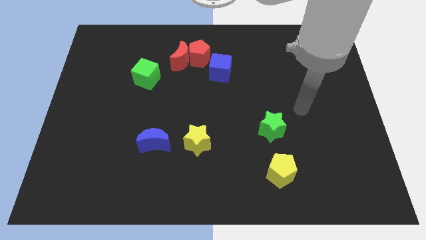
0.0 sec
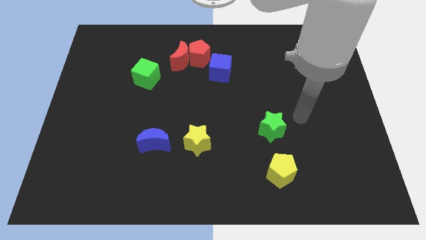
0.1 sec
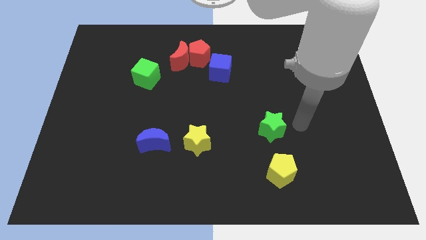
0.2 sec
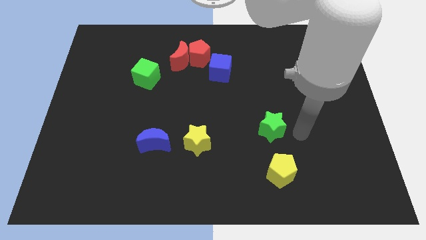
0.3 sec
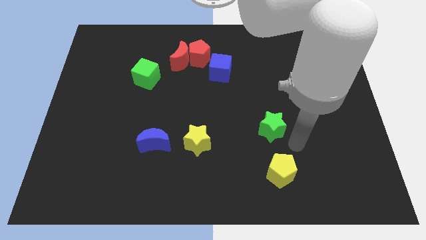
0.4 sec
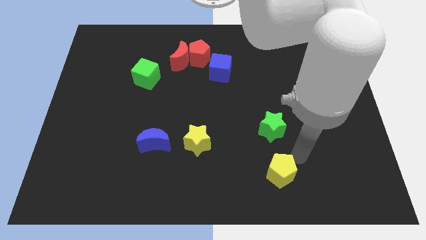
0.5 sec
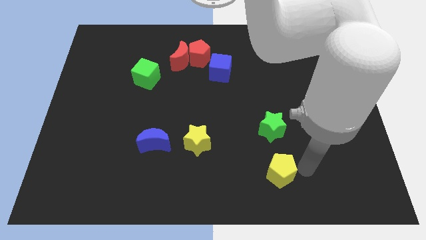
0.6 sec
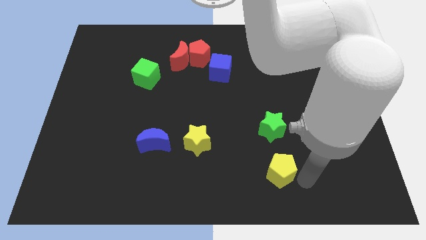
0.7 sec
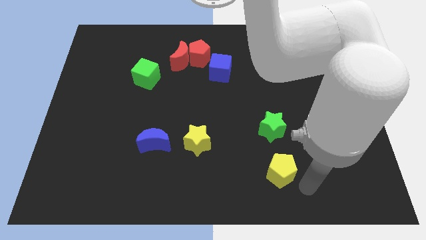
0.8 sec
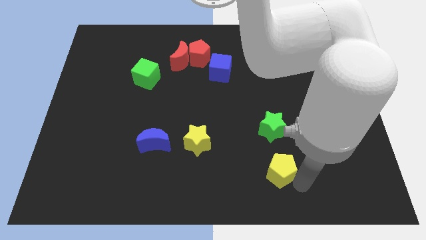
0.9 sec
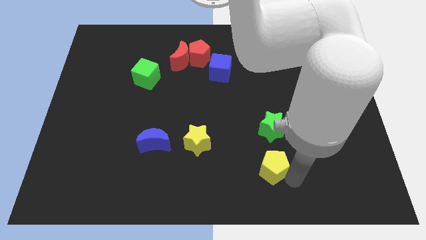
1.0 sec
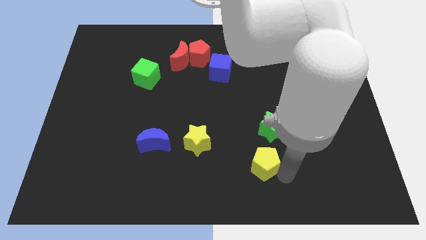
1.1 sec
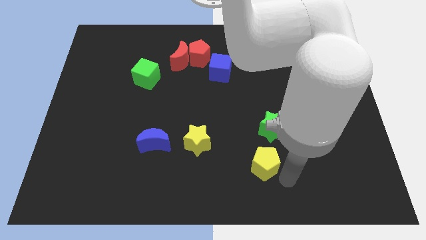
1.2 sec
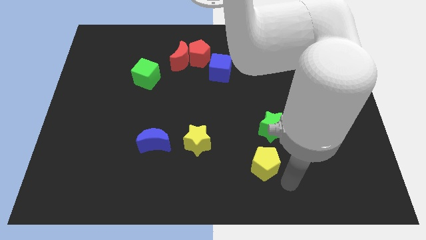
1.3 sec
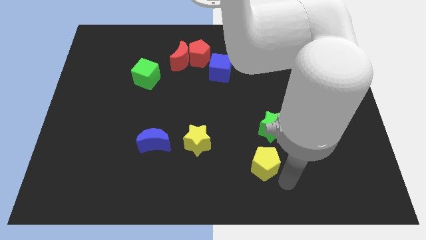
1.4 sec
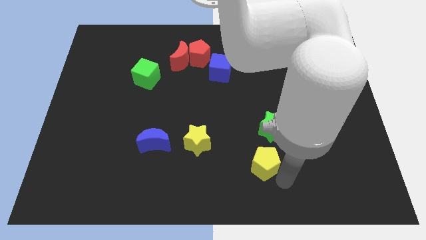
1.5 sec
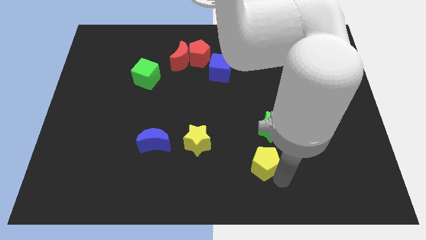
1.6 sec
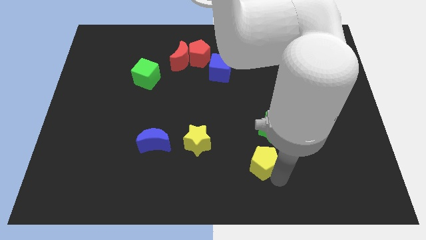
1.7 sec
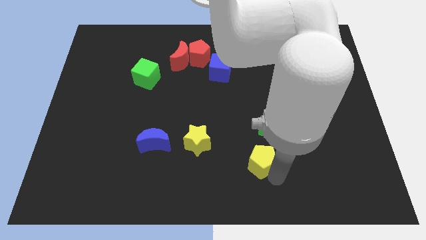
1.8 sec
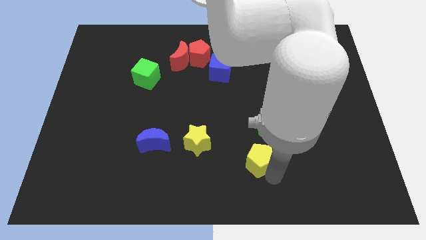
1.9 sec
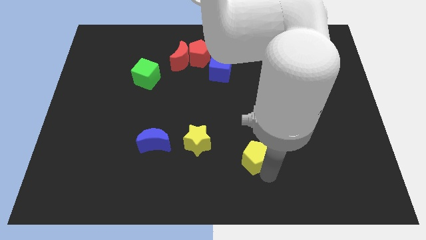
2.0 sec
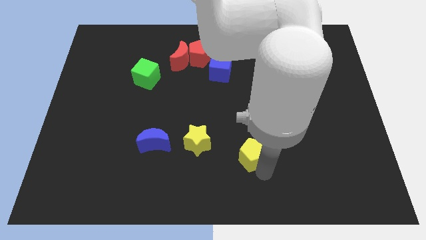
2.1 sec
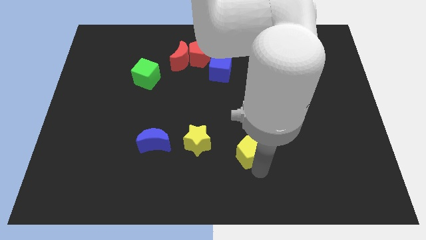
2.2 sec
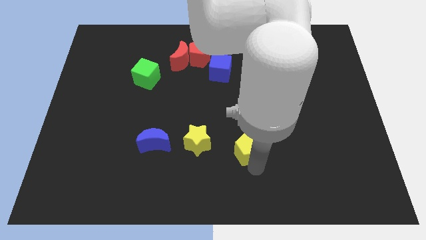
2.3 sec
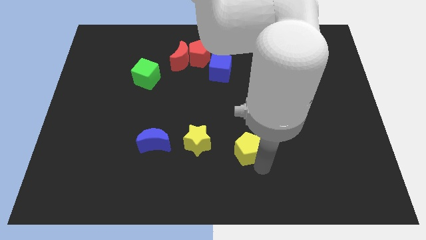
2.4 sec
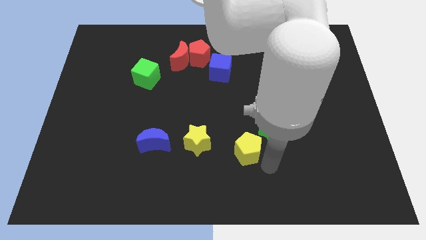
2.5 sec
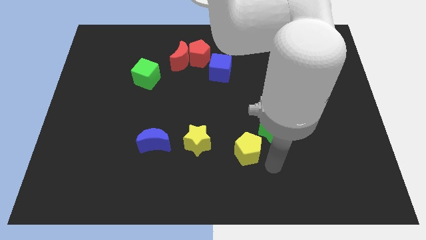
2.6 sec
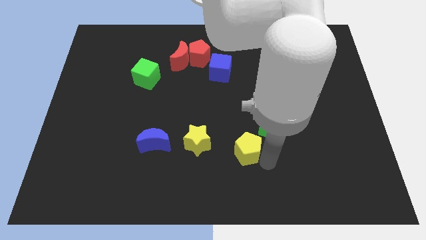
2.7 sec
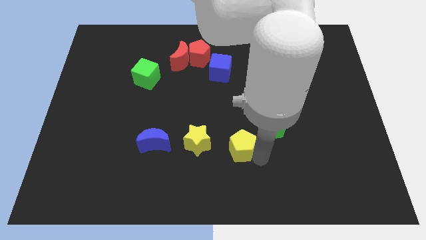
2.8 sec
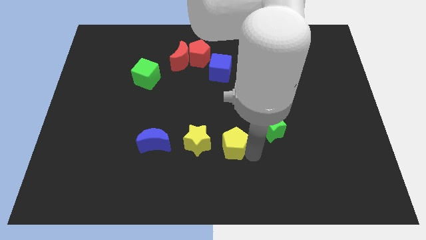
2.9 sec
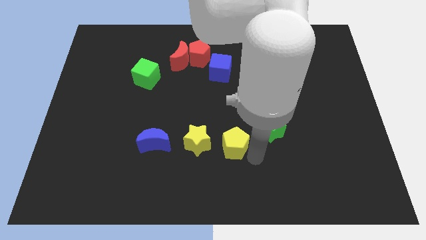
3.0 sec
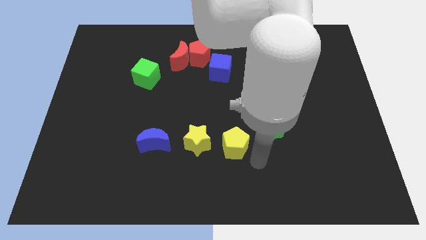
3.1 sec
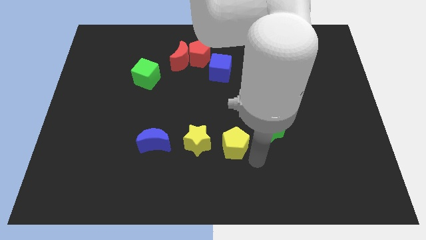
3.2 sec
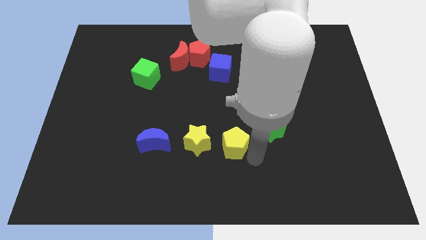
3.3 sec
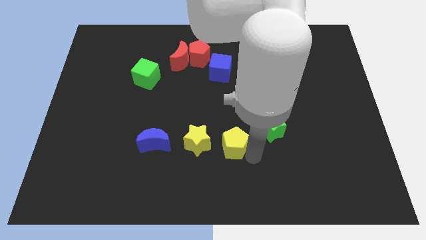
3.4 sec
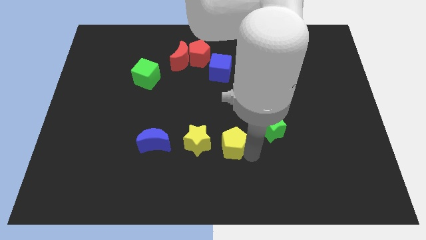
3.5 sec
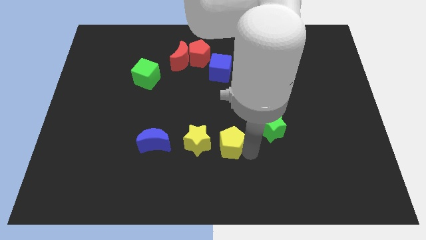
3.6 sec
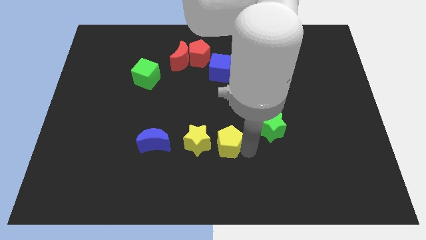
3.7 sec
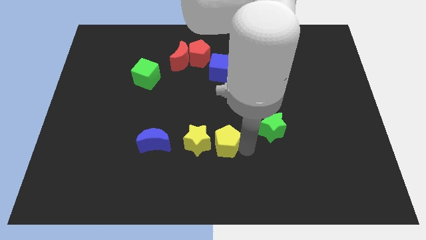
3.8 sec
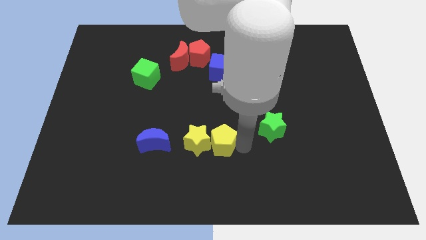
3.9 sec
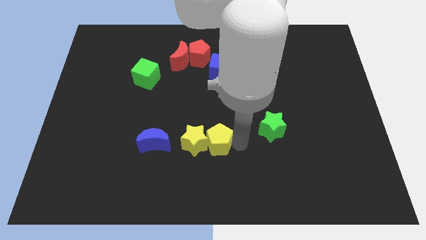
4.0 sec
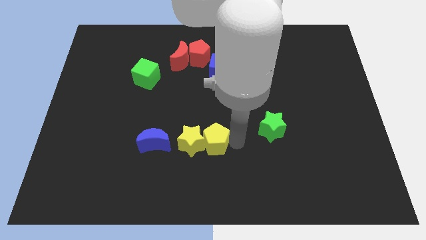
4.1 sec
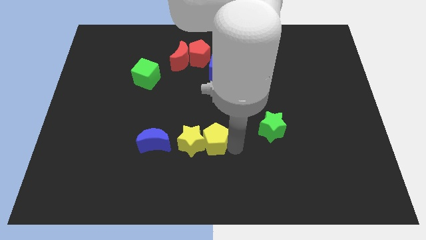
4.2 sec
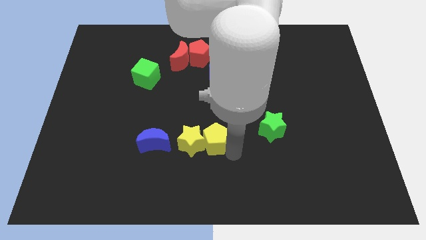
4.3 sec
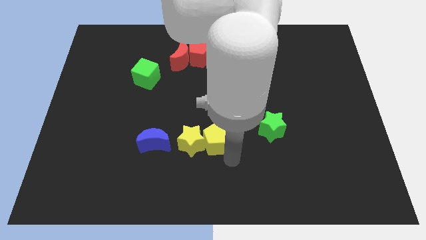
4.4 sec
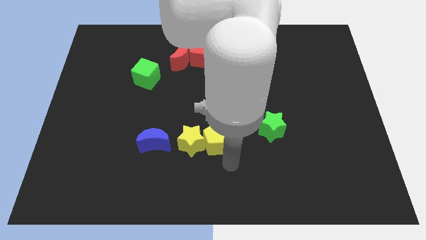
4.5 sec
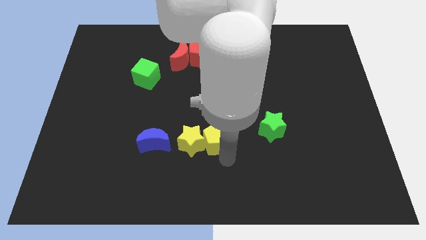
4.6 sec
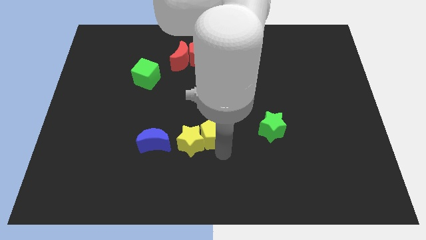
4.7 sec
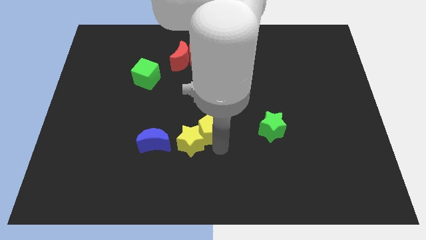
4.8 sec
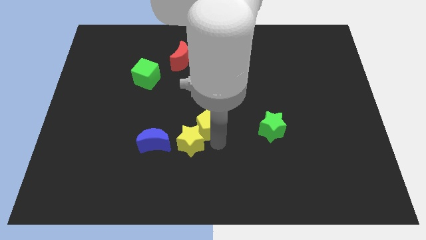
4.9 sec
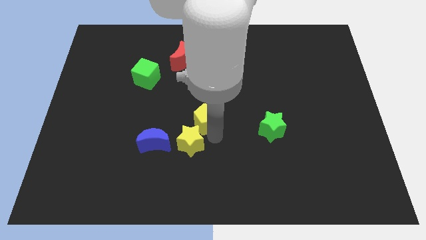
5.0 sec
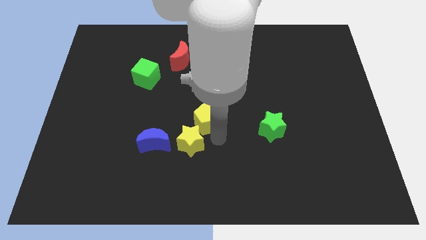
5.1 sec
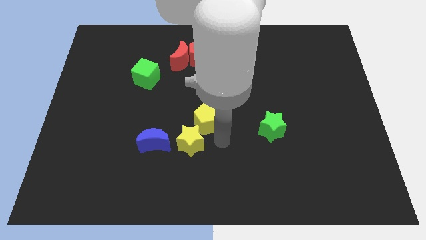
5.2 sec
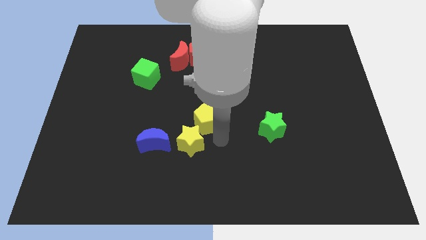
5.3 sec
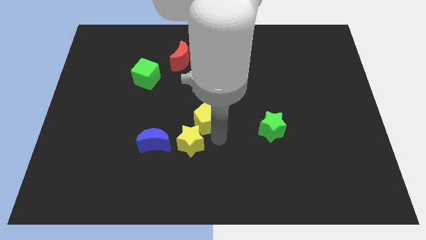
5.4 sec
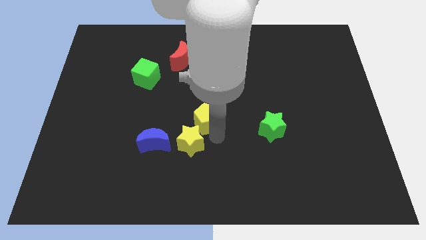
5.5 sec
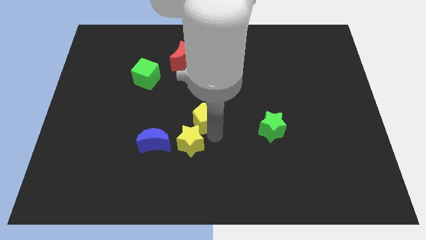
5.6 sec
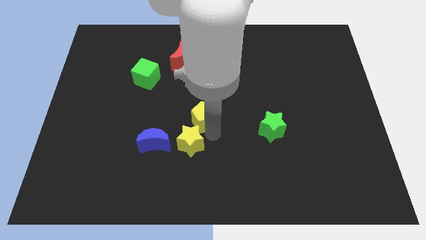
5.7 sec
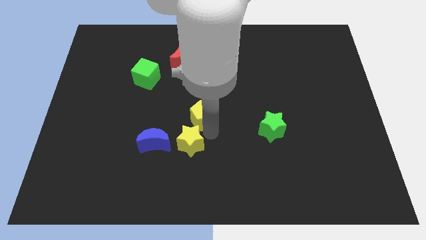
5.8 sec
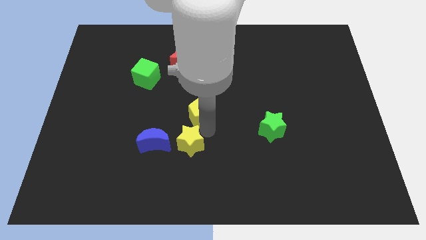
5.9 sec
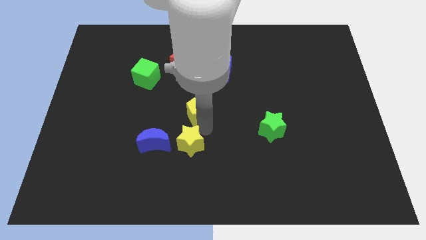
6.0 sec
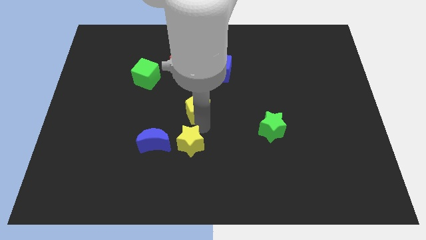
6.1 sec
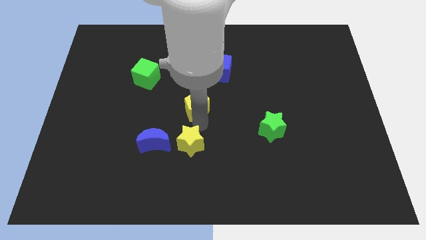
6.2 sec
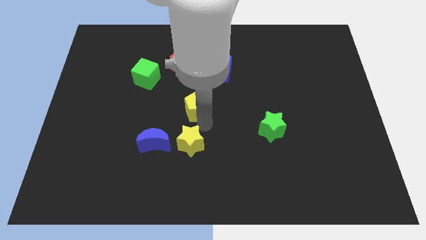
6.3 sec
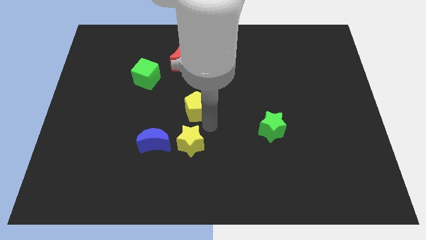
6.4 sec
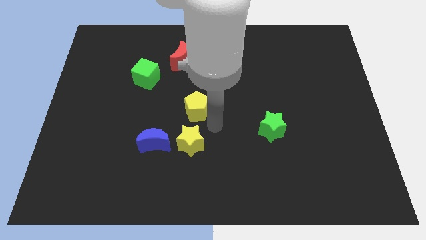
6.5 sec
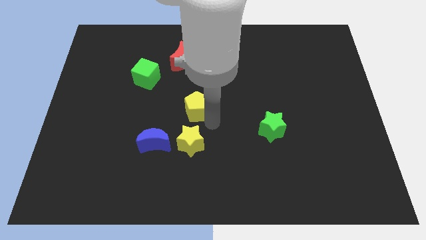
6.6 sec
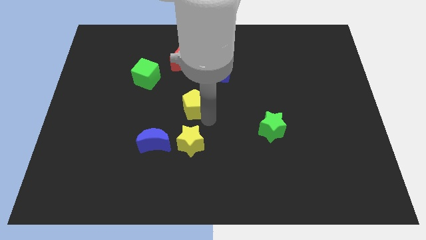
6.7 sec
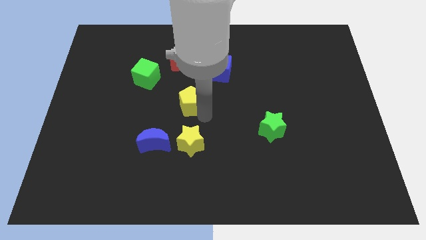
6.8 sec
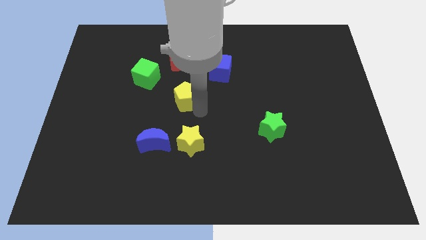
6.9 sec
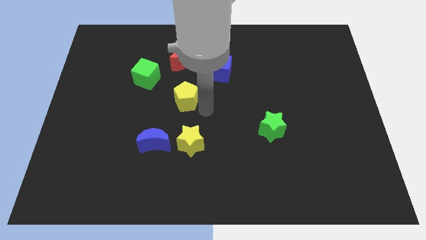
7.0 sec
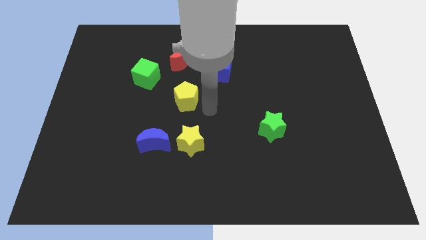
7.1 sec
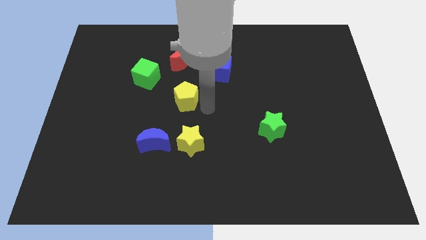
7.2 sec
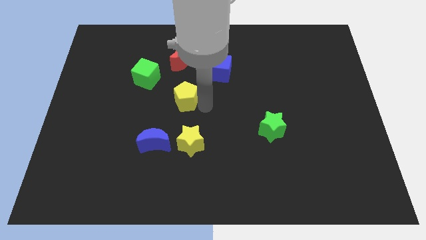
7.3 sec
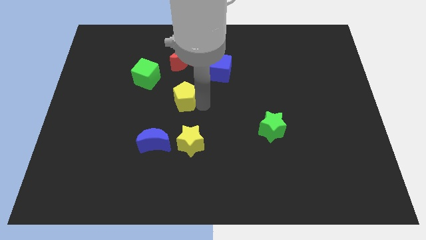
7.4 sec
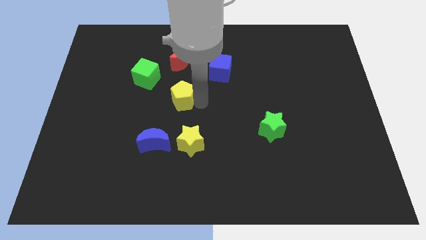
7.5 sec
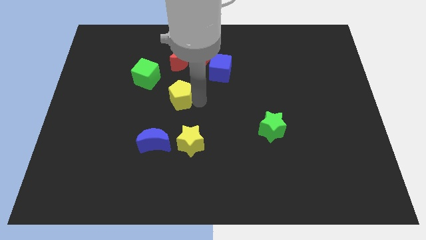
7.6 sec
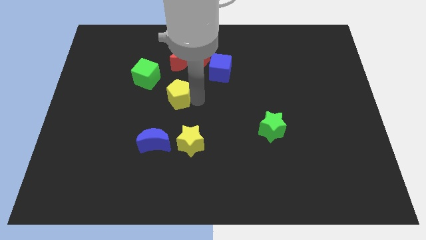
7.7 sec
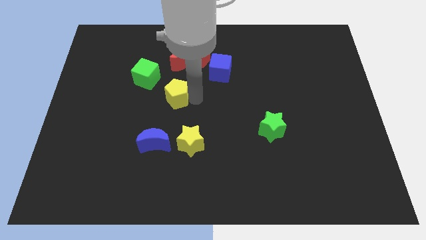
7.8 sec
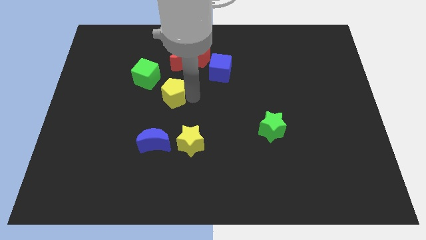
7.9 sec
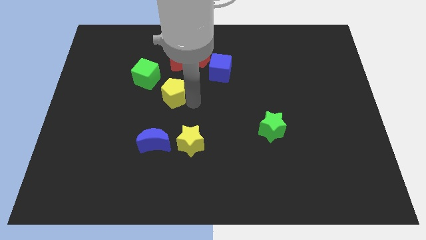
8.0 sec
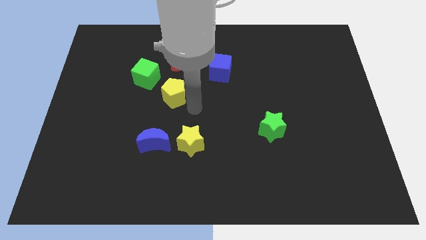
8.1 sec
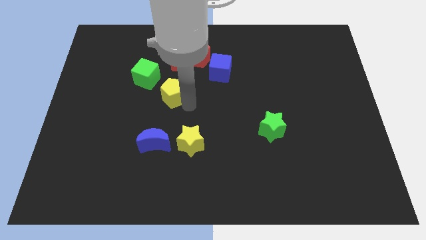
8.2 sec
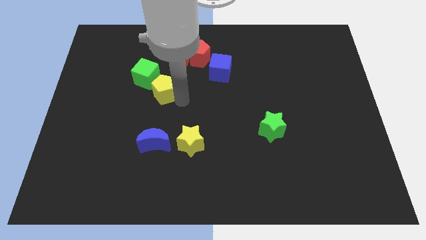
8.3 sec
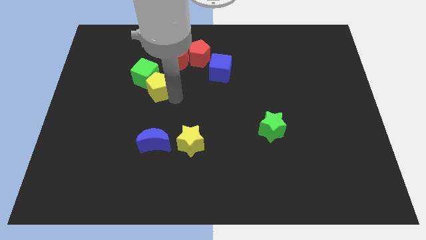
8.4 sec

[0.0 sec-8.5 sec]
push the yellow pentagon to the green cube
